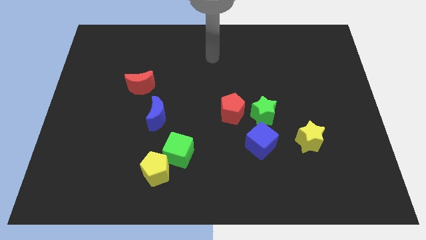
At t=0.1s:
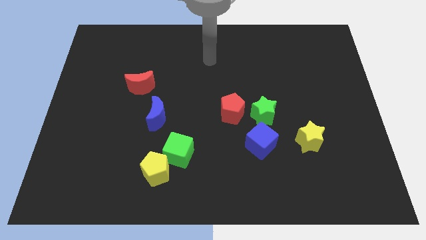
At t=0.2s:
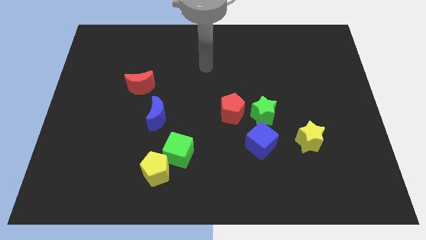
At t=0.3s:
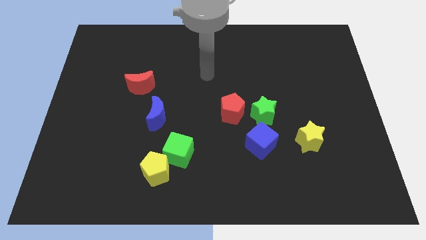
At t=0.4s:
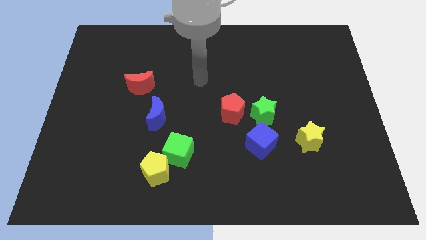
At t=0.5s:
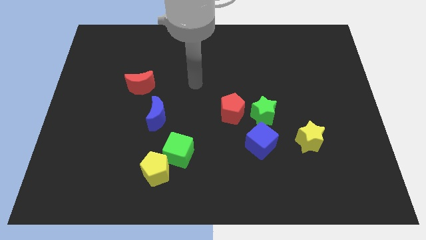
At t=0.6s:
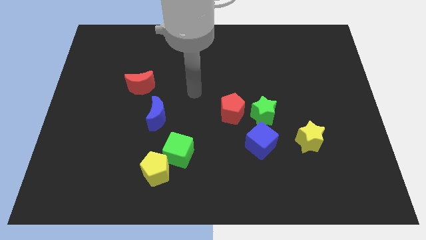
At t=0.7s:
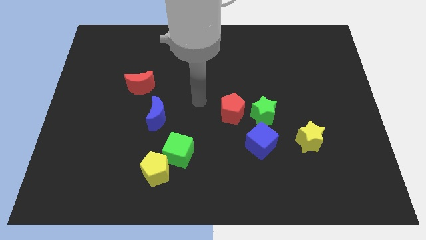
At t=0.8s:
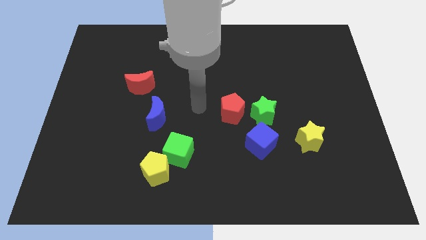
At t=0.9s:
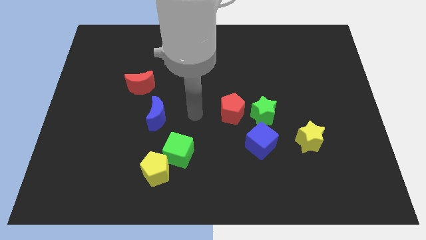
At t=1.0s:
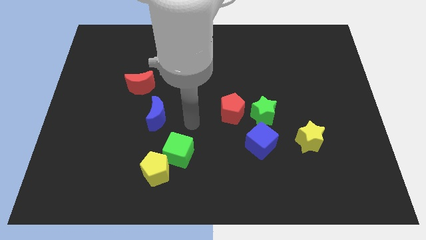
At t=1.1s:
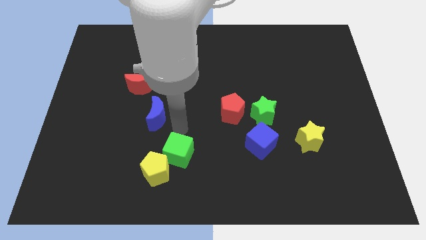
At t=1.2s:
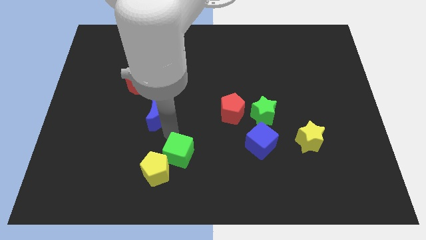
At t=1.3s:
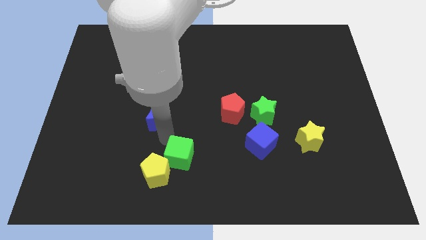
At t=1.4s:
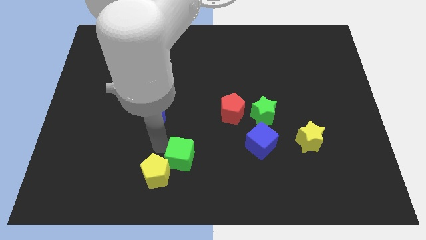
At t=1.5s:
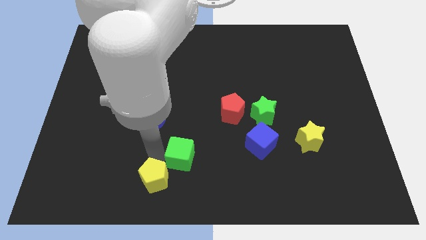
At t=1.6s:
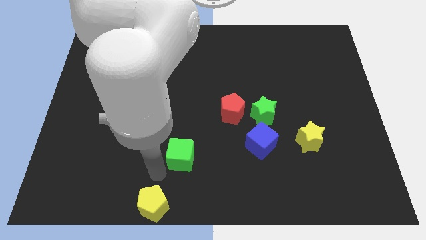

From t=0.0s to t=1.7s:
pull the green cube apart from the yellow pentagon

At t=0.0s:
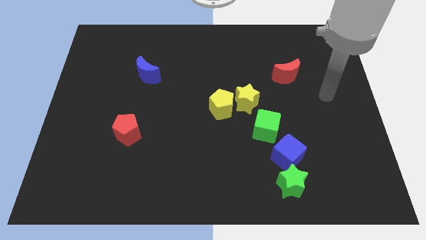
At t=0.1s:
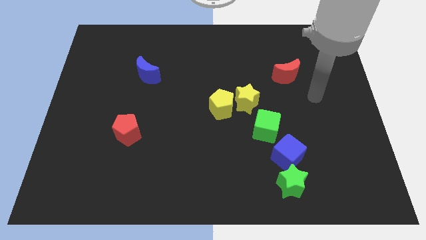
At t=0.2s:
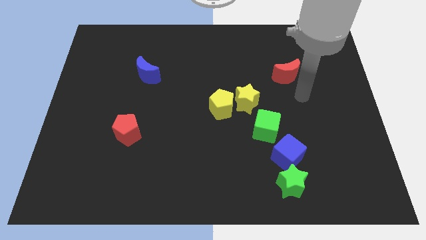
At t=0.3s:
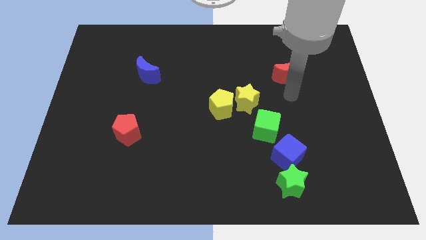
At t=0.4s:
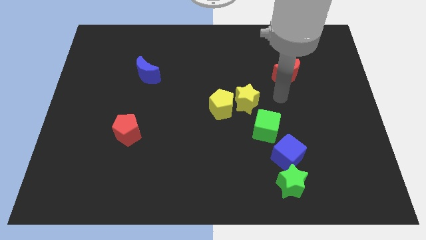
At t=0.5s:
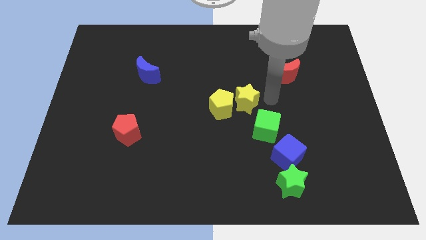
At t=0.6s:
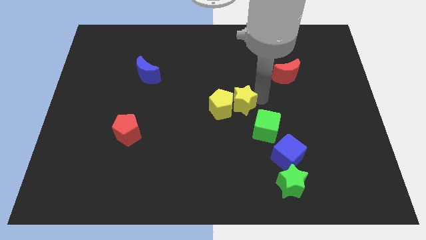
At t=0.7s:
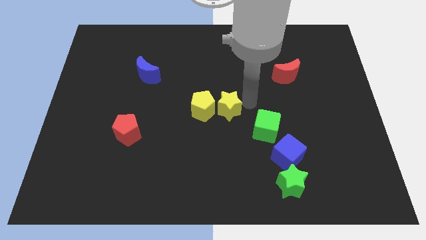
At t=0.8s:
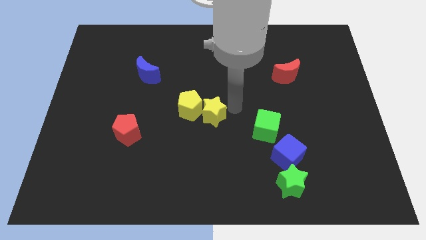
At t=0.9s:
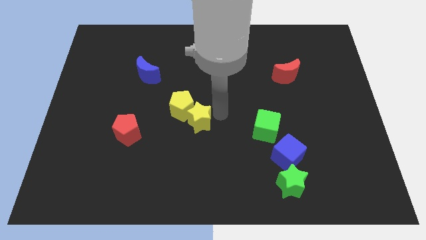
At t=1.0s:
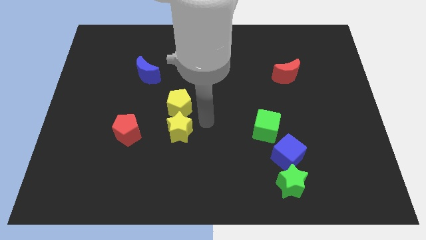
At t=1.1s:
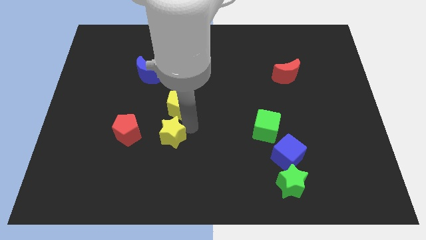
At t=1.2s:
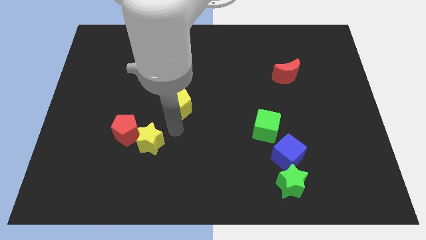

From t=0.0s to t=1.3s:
pull the yellow pentagon apart from the yellow star

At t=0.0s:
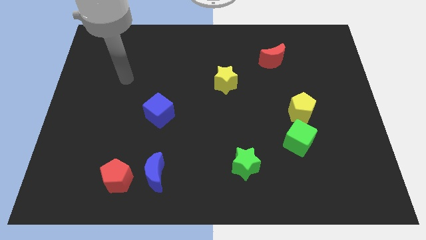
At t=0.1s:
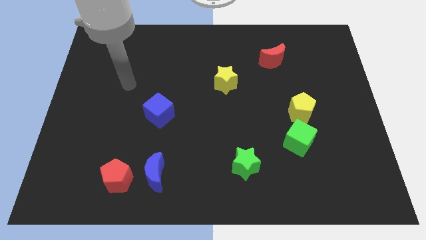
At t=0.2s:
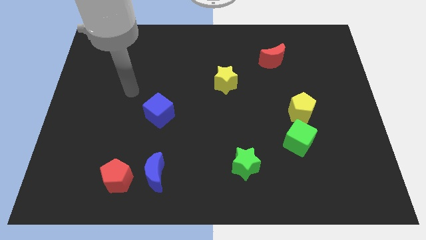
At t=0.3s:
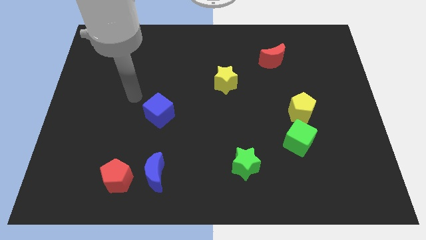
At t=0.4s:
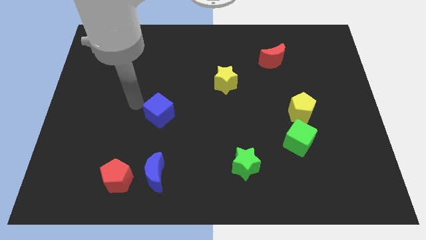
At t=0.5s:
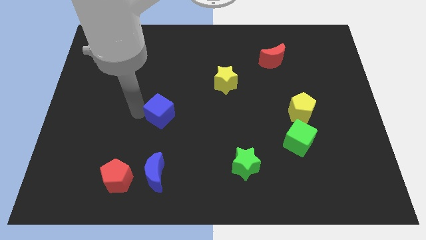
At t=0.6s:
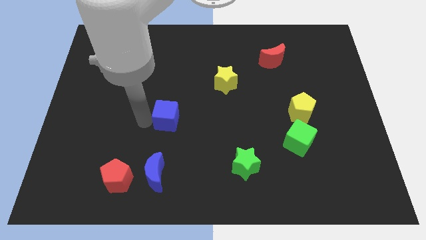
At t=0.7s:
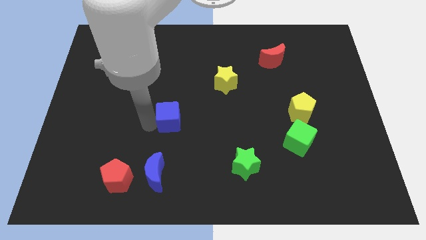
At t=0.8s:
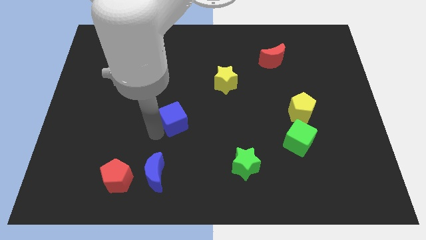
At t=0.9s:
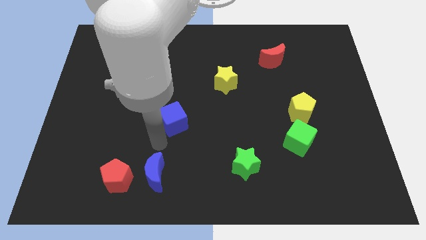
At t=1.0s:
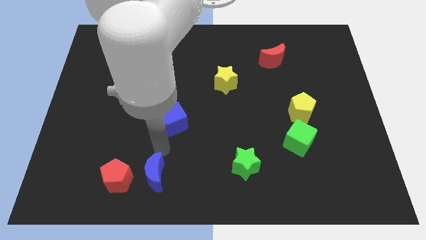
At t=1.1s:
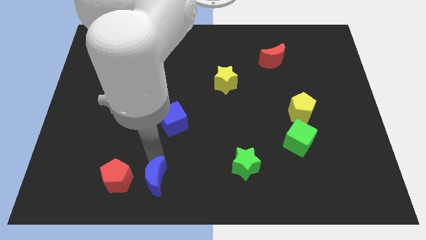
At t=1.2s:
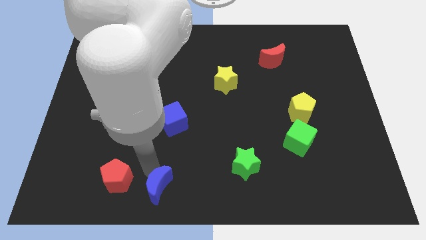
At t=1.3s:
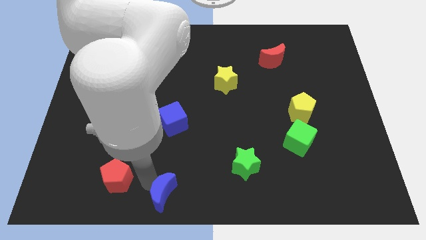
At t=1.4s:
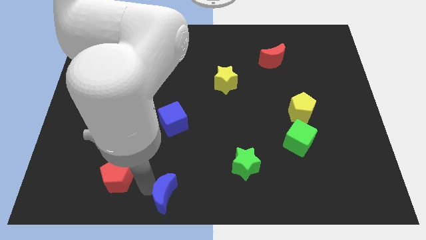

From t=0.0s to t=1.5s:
separate the red pentagon from the blue moon

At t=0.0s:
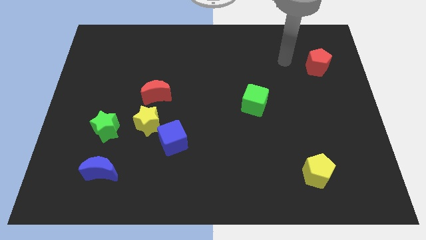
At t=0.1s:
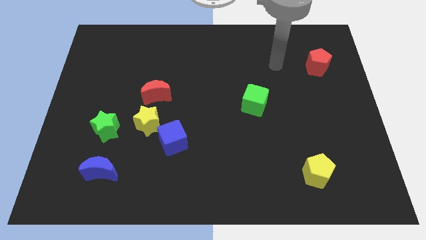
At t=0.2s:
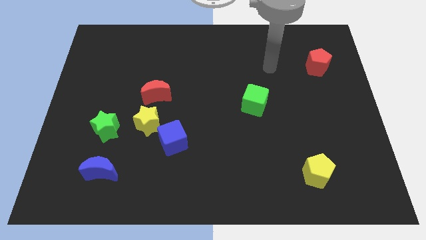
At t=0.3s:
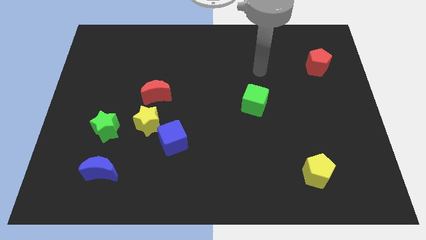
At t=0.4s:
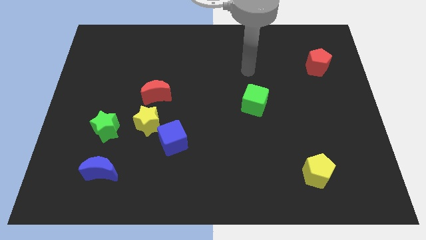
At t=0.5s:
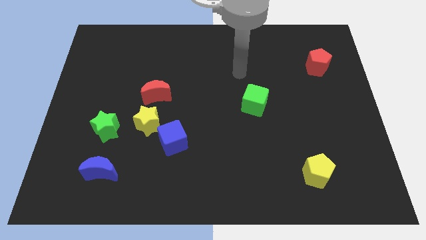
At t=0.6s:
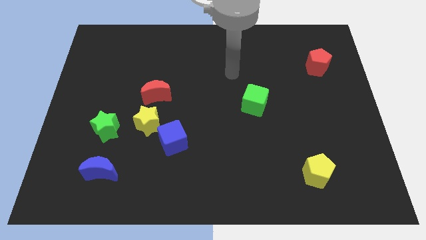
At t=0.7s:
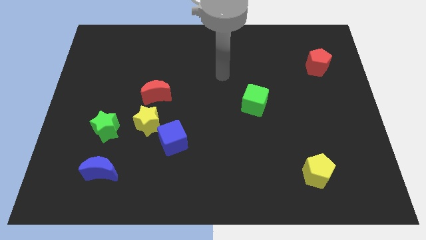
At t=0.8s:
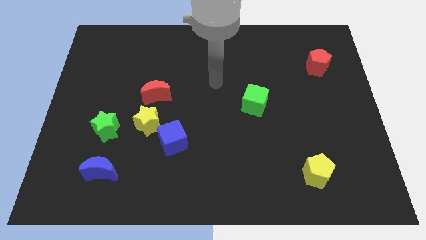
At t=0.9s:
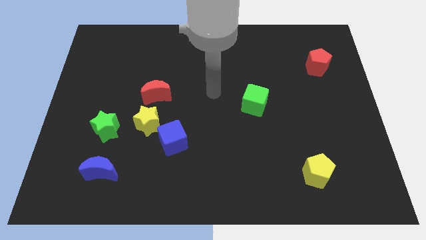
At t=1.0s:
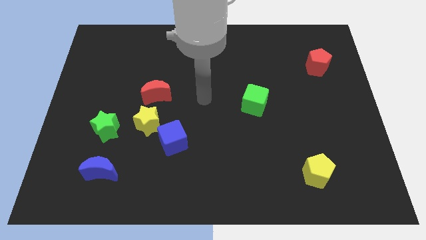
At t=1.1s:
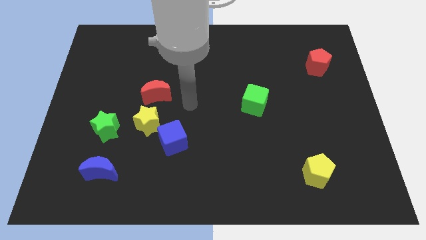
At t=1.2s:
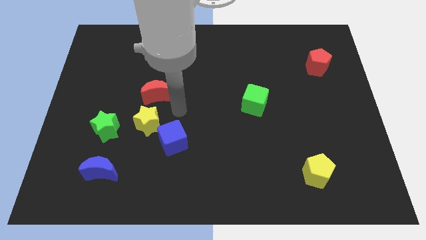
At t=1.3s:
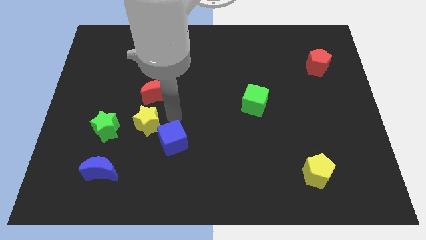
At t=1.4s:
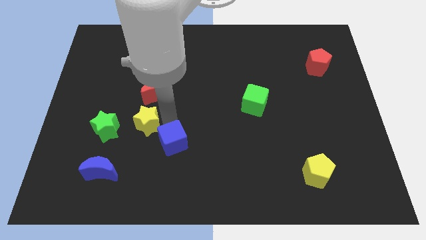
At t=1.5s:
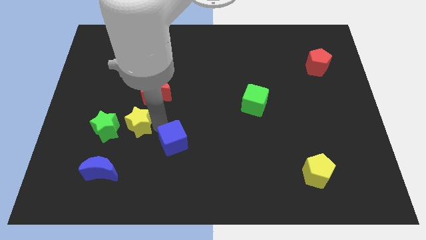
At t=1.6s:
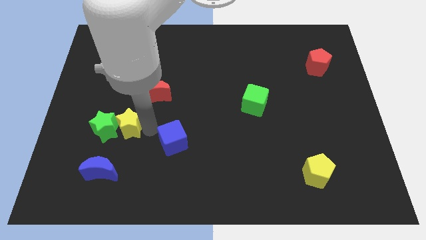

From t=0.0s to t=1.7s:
move the blue cube away from the yellow star

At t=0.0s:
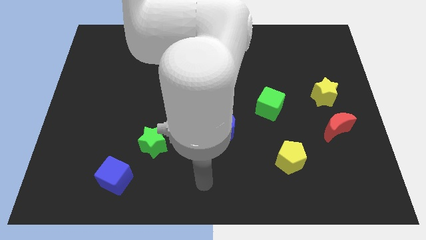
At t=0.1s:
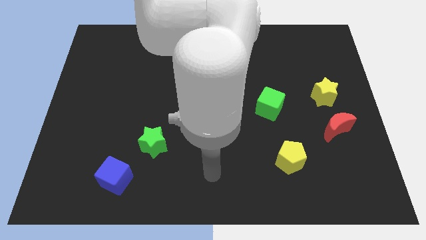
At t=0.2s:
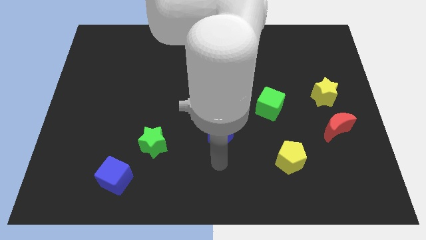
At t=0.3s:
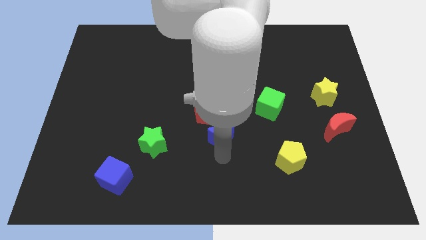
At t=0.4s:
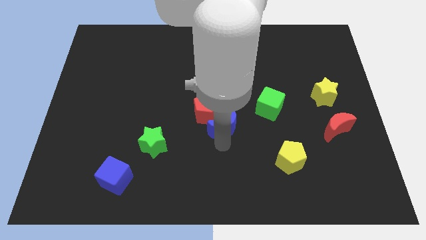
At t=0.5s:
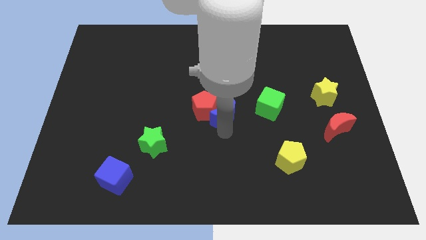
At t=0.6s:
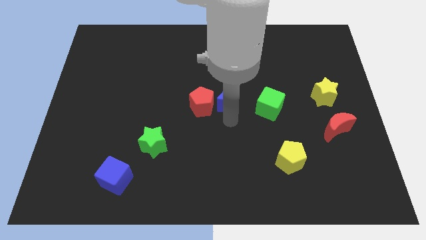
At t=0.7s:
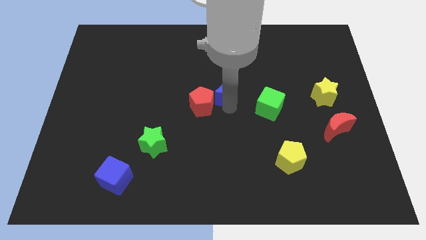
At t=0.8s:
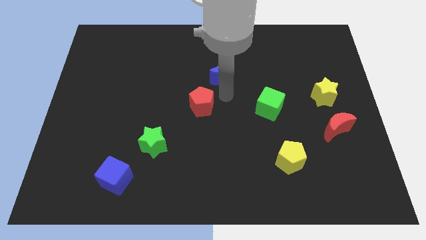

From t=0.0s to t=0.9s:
pull the red pentagon apart from the blue moon

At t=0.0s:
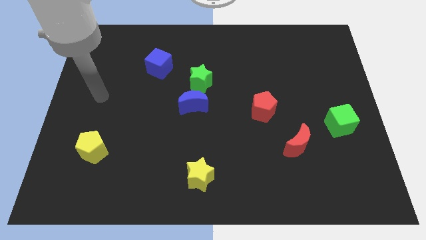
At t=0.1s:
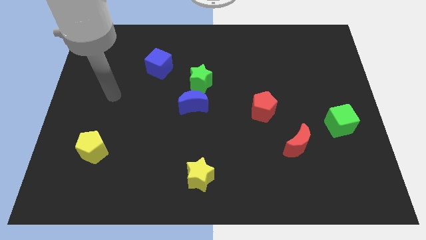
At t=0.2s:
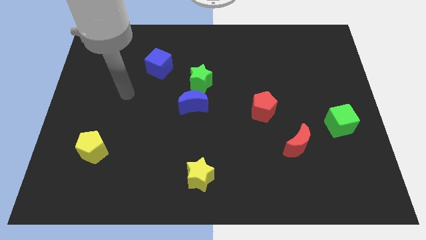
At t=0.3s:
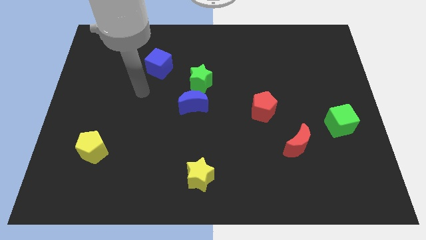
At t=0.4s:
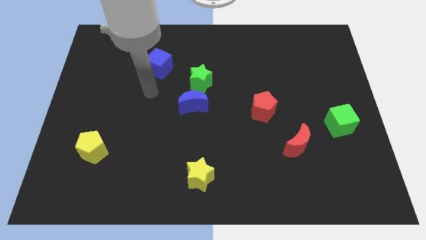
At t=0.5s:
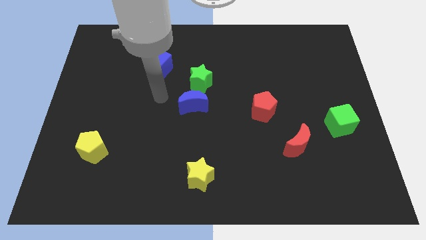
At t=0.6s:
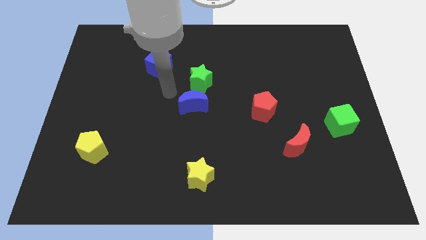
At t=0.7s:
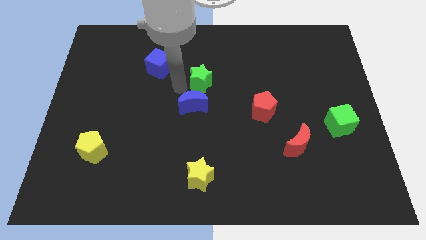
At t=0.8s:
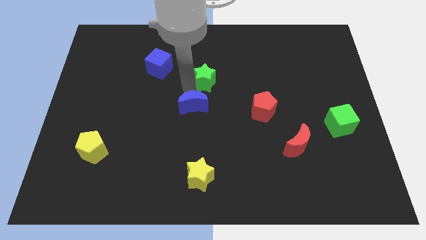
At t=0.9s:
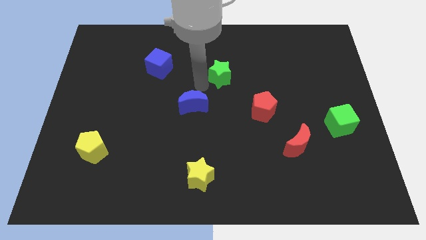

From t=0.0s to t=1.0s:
move the blue moon away from the green star

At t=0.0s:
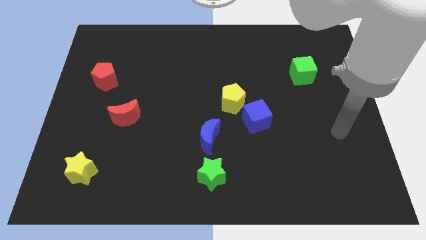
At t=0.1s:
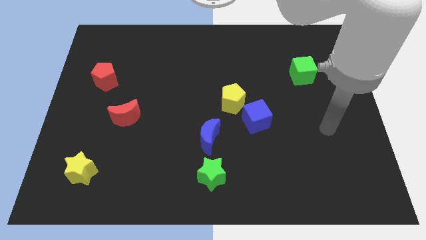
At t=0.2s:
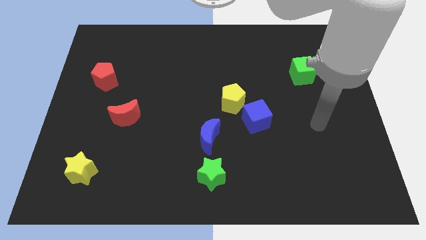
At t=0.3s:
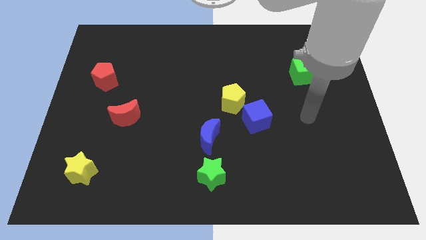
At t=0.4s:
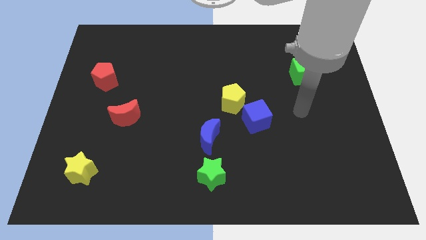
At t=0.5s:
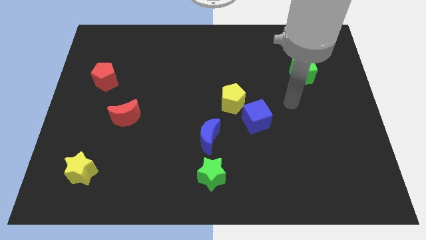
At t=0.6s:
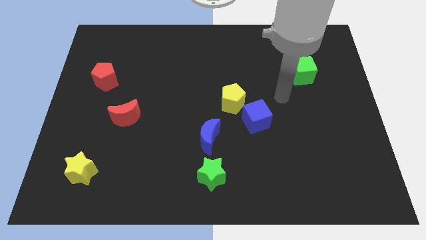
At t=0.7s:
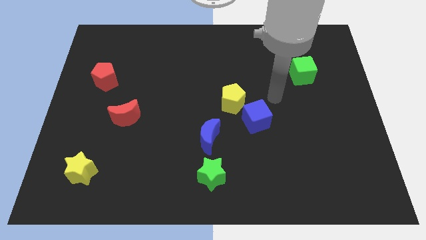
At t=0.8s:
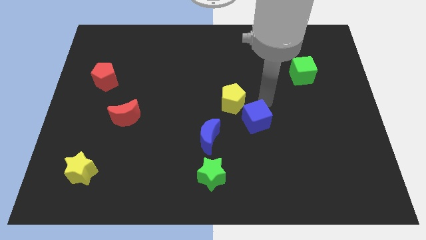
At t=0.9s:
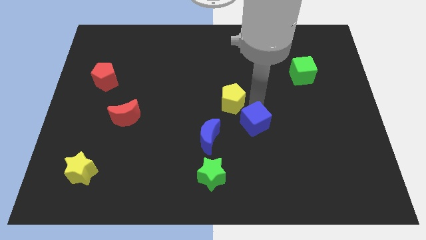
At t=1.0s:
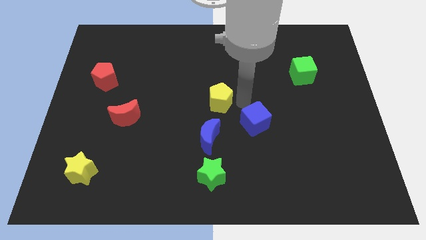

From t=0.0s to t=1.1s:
separate the blue cube from the yellow pentagon
